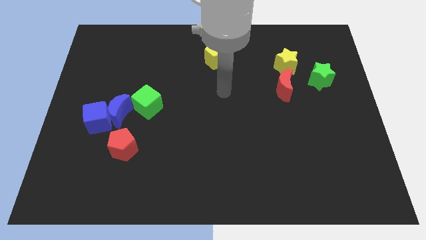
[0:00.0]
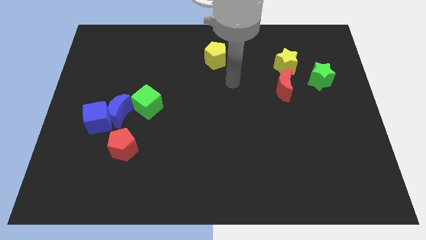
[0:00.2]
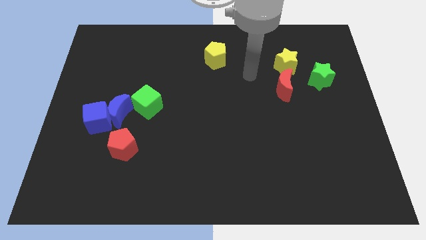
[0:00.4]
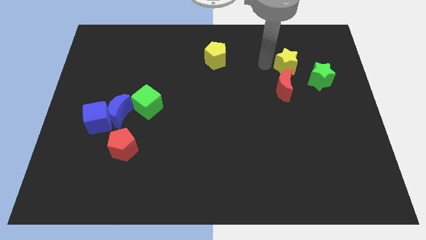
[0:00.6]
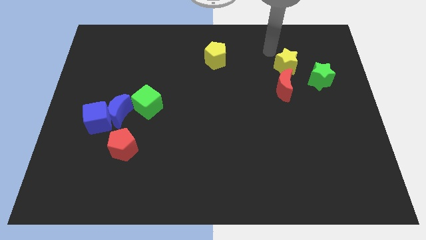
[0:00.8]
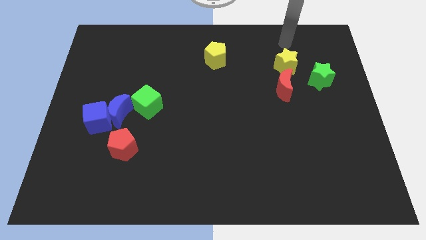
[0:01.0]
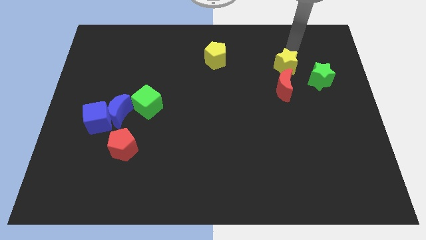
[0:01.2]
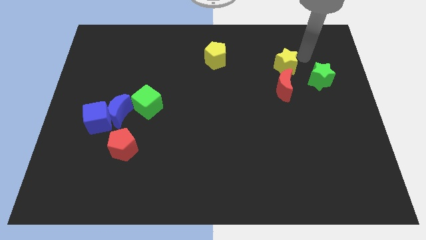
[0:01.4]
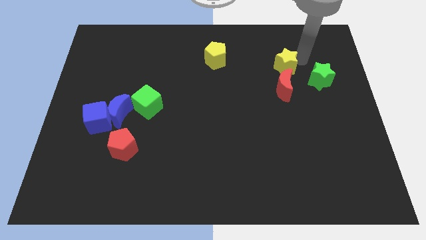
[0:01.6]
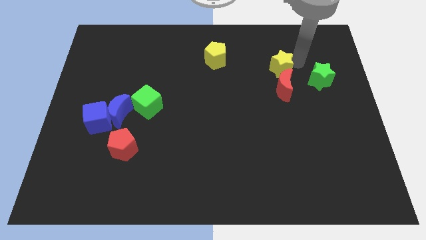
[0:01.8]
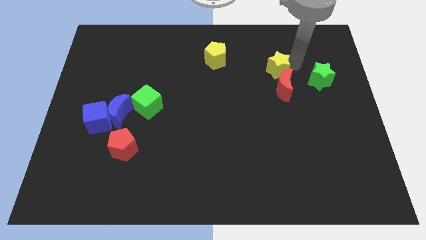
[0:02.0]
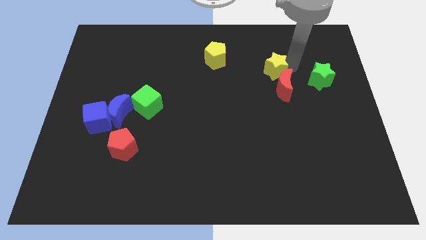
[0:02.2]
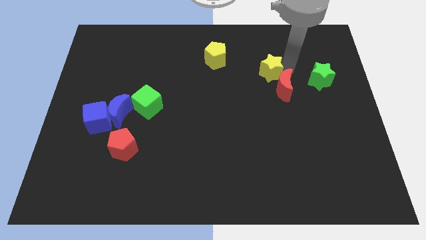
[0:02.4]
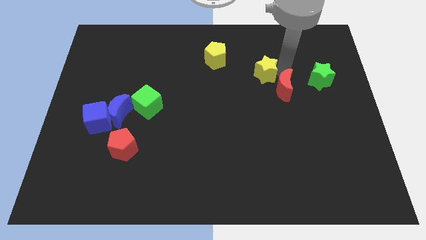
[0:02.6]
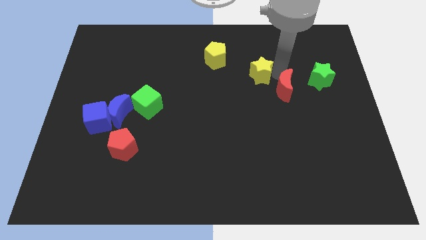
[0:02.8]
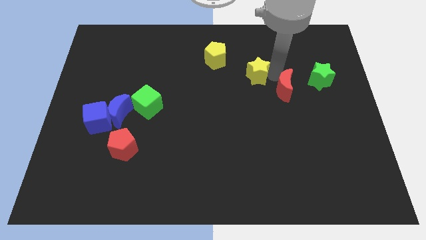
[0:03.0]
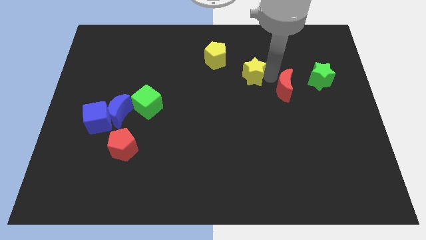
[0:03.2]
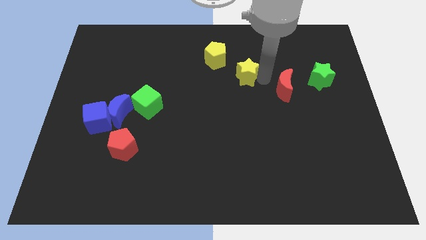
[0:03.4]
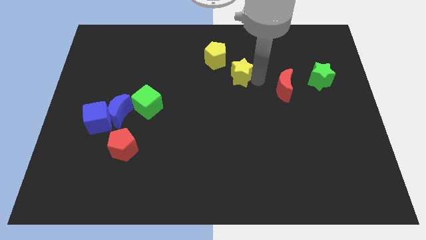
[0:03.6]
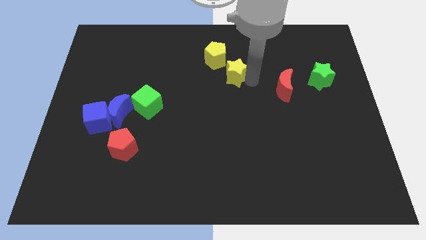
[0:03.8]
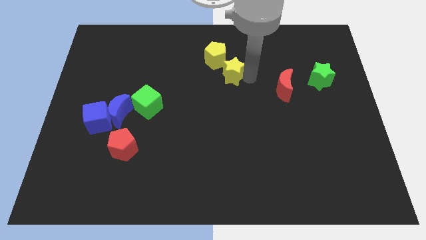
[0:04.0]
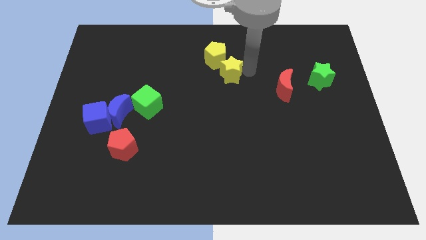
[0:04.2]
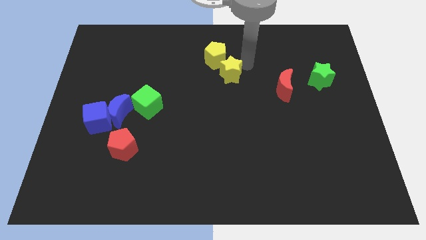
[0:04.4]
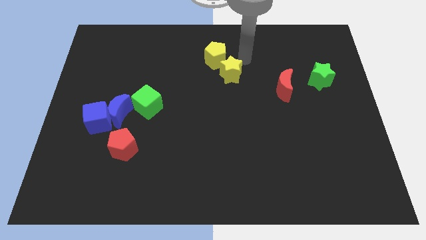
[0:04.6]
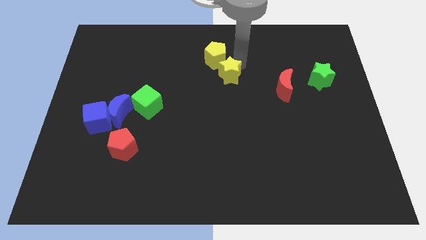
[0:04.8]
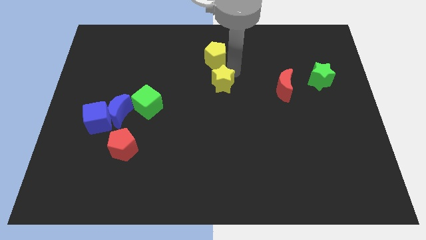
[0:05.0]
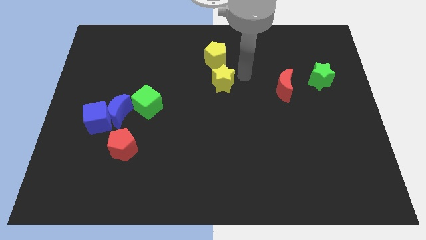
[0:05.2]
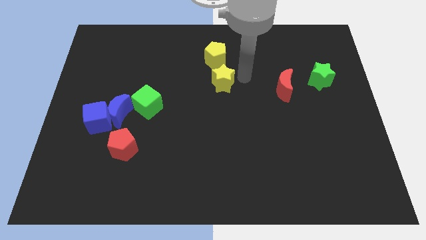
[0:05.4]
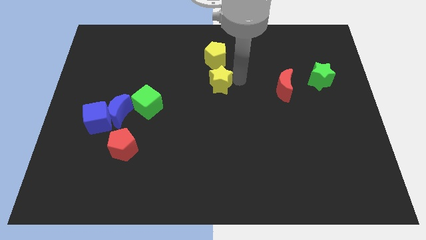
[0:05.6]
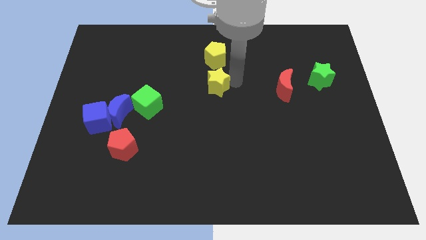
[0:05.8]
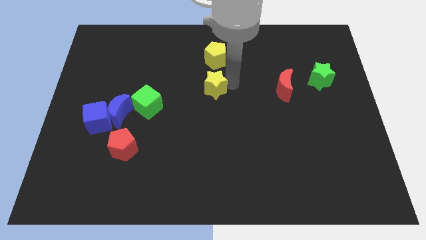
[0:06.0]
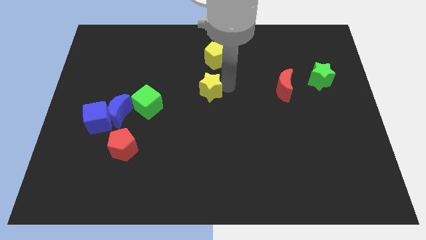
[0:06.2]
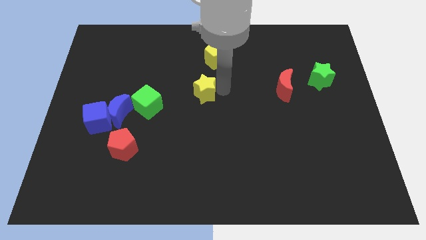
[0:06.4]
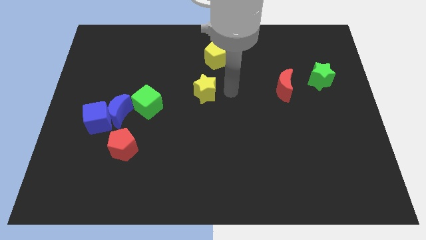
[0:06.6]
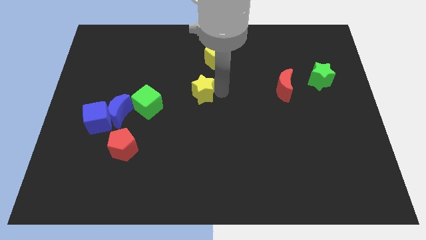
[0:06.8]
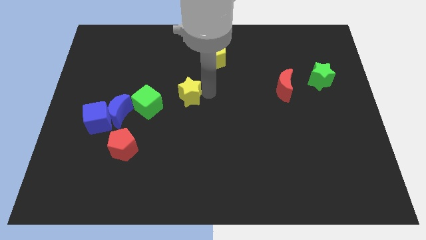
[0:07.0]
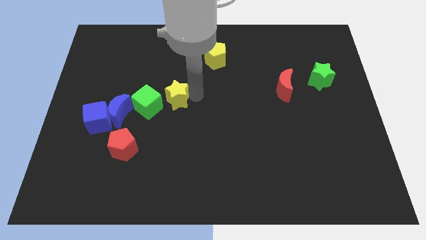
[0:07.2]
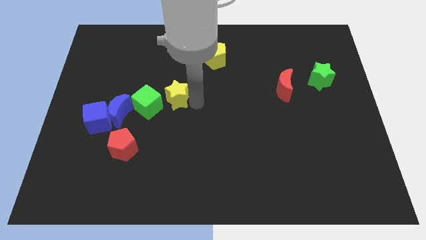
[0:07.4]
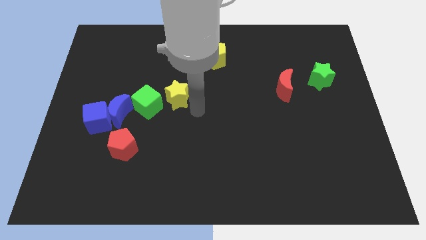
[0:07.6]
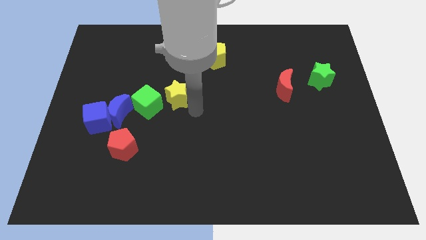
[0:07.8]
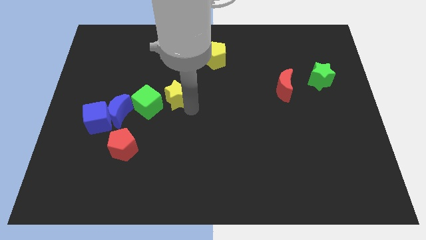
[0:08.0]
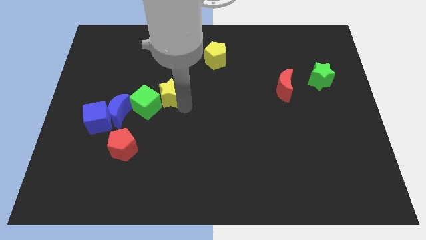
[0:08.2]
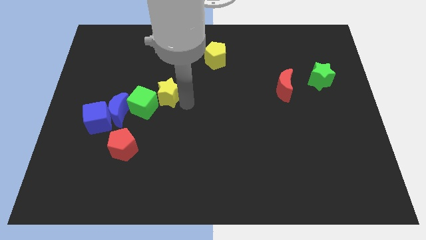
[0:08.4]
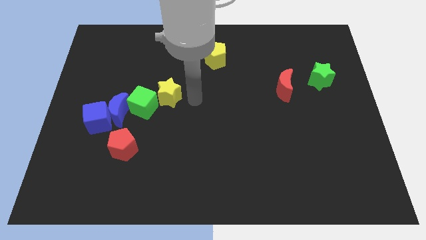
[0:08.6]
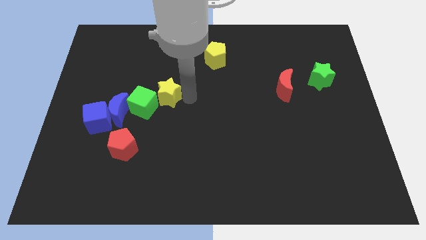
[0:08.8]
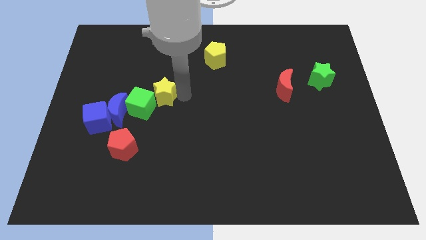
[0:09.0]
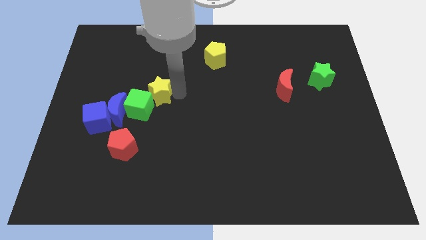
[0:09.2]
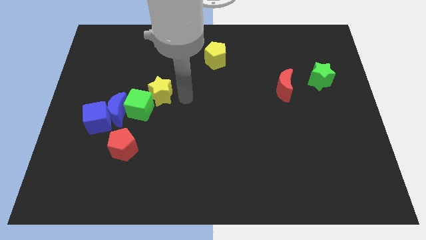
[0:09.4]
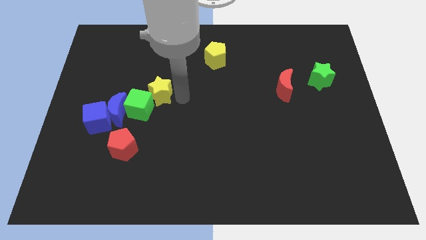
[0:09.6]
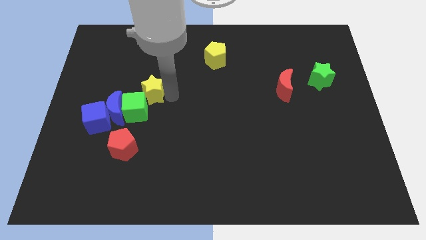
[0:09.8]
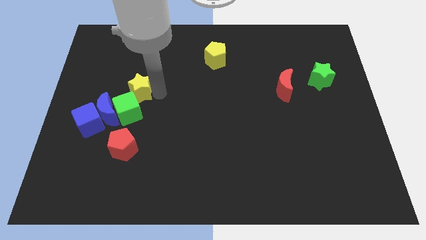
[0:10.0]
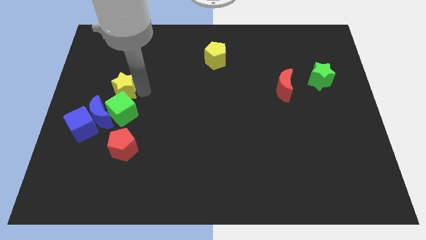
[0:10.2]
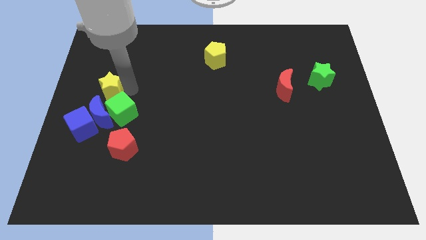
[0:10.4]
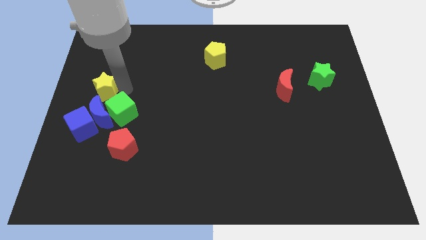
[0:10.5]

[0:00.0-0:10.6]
push the yellow star to the left side

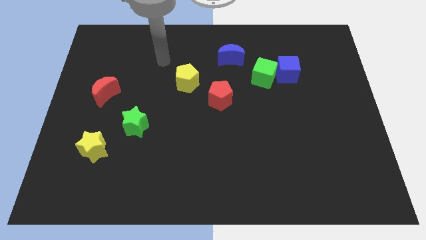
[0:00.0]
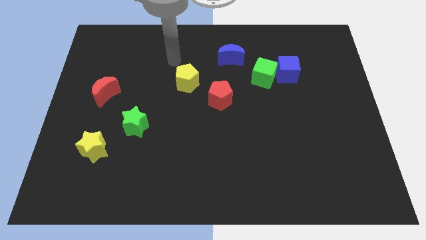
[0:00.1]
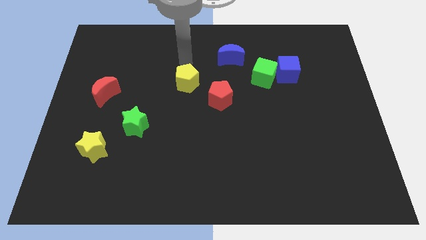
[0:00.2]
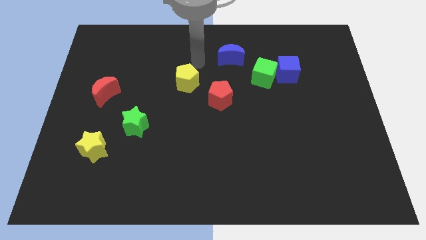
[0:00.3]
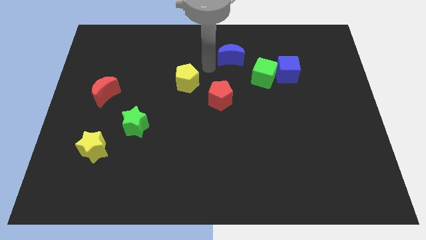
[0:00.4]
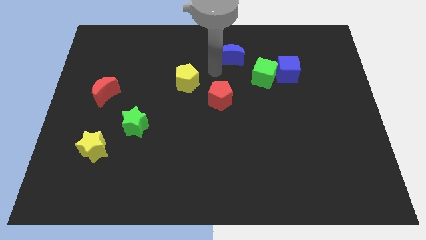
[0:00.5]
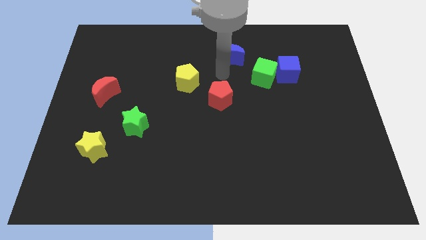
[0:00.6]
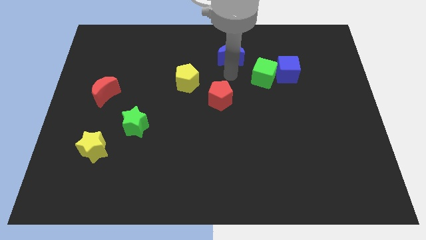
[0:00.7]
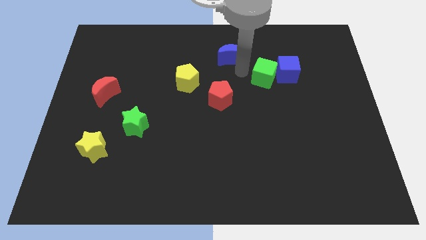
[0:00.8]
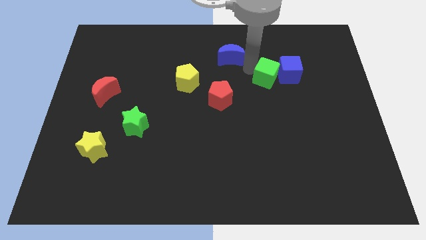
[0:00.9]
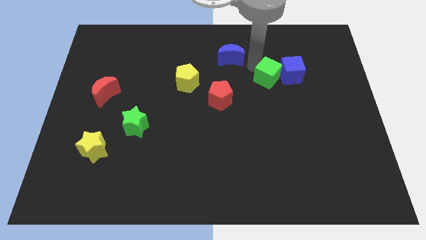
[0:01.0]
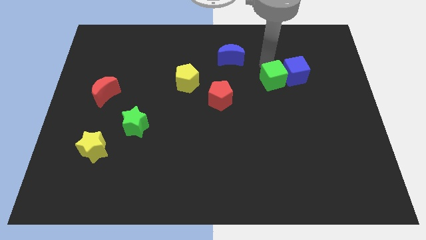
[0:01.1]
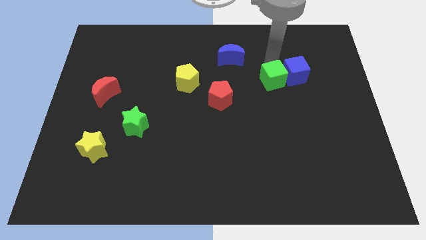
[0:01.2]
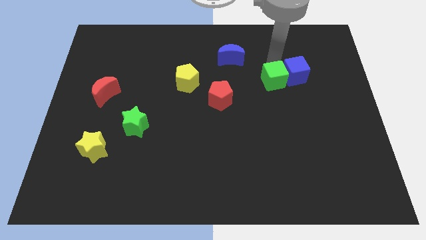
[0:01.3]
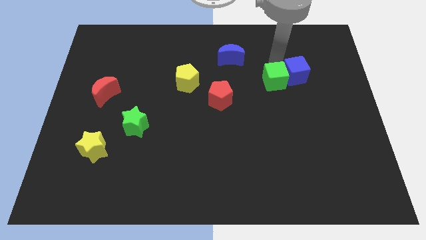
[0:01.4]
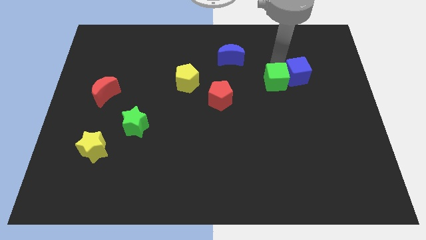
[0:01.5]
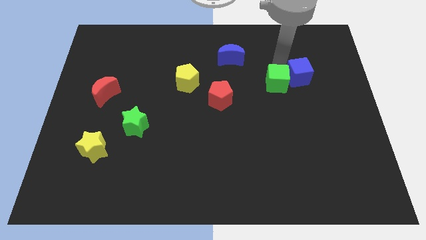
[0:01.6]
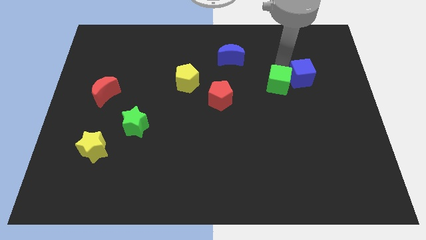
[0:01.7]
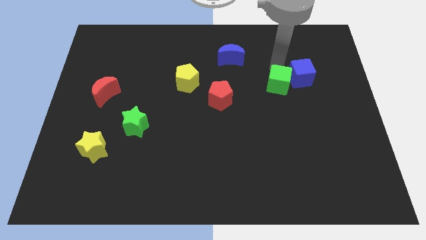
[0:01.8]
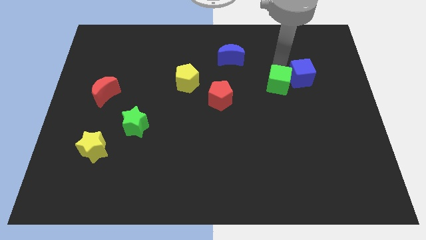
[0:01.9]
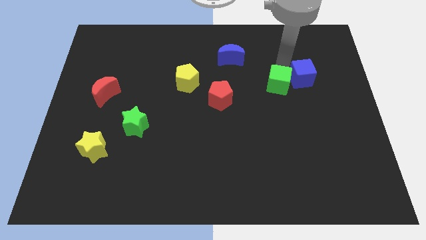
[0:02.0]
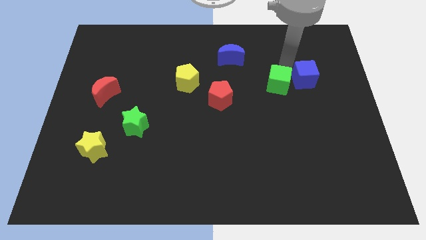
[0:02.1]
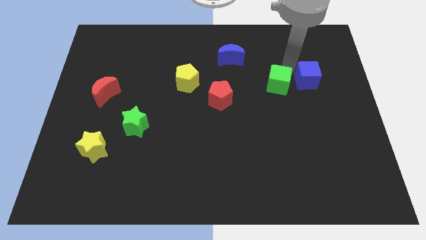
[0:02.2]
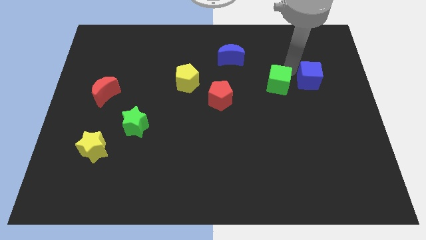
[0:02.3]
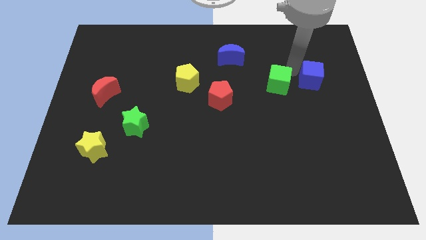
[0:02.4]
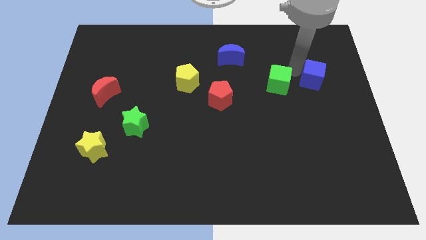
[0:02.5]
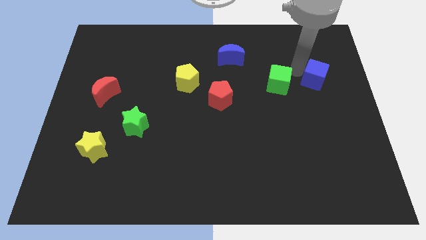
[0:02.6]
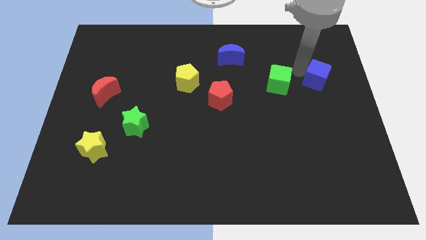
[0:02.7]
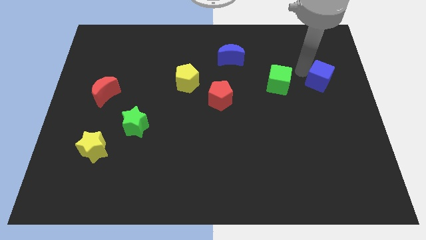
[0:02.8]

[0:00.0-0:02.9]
move the blue cube to the right side
